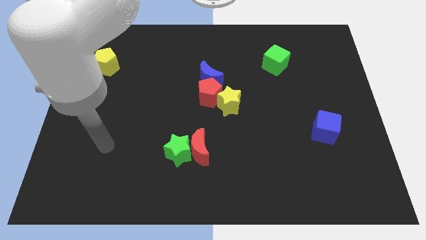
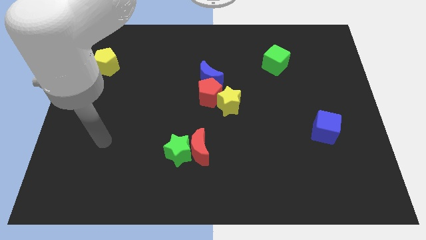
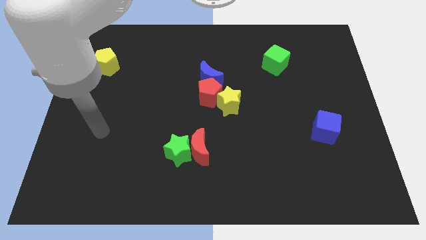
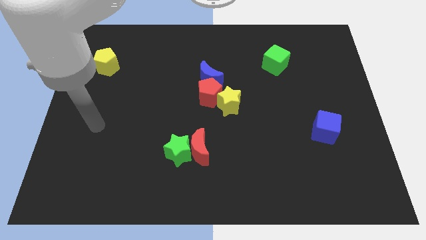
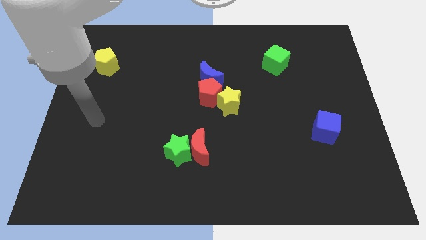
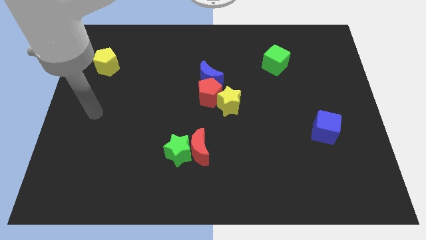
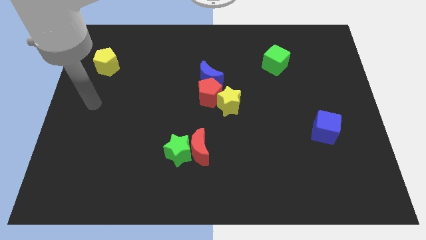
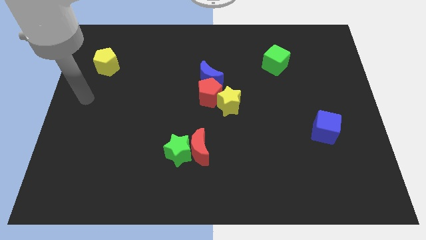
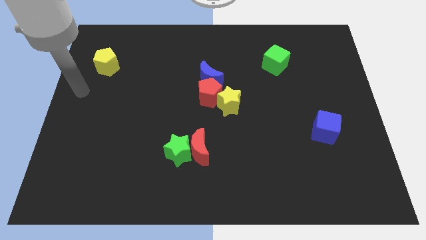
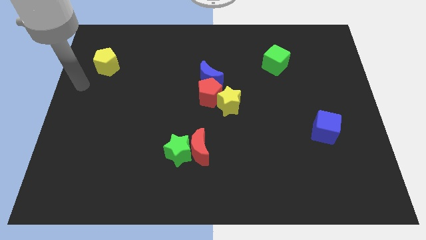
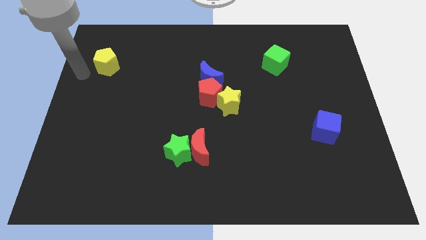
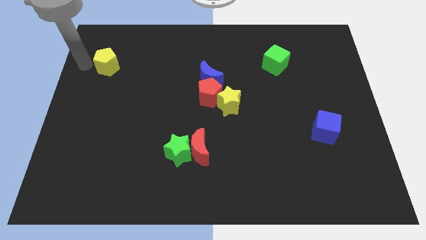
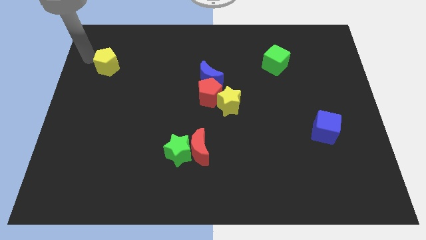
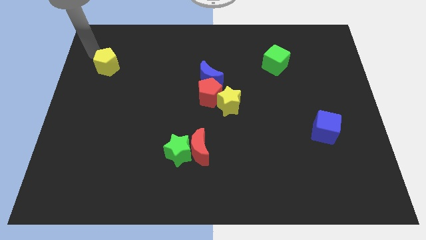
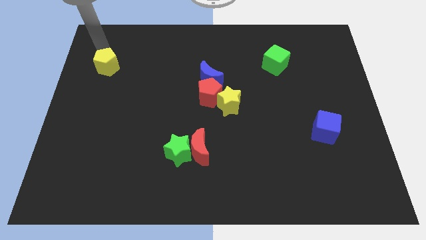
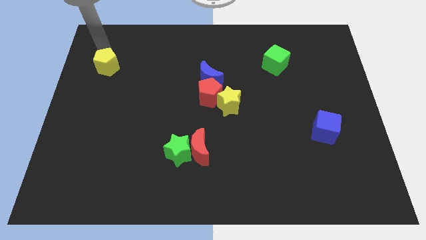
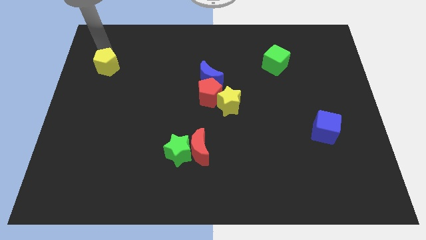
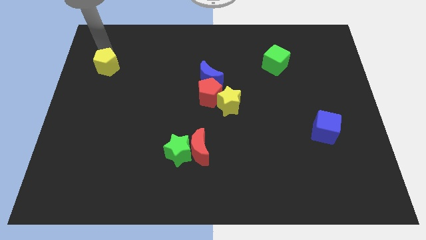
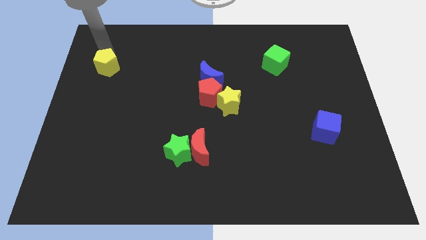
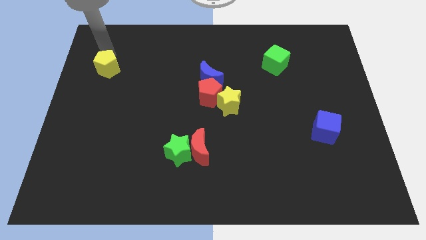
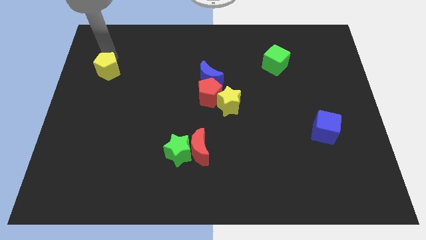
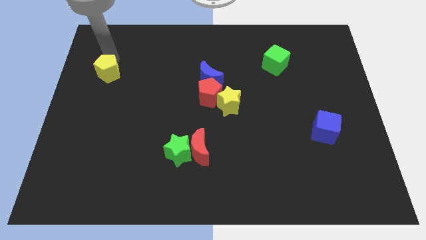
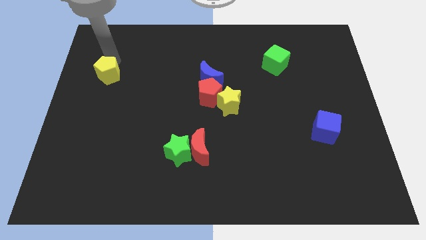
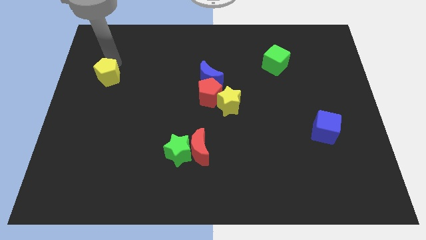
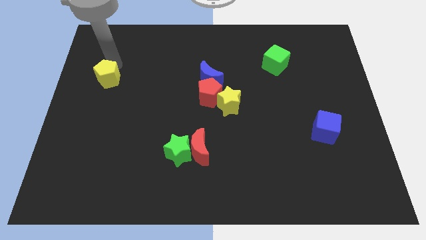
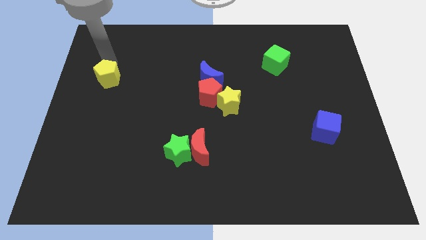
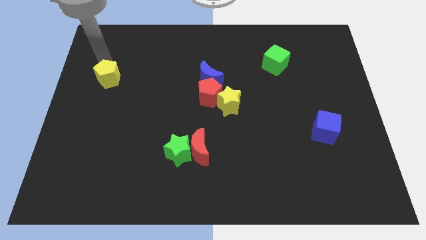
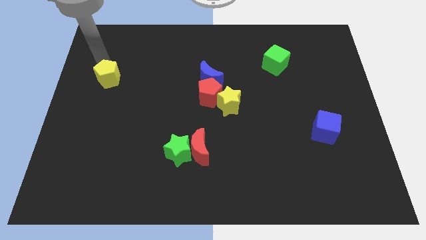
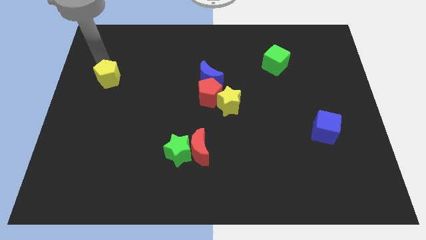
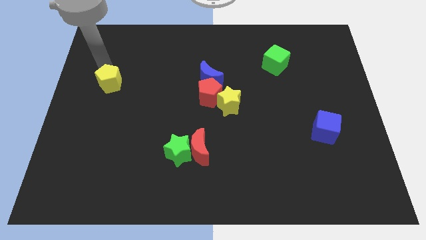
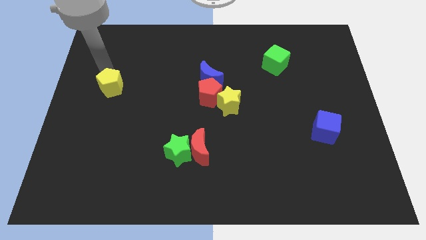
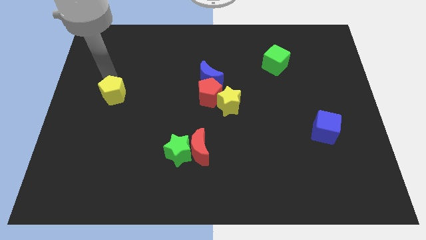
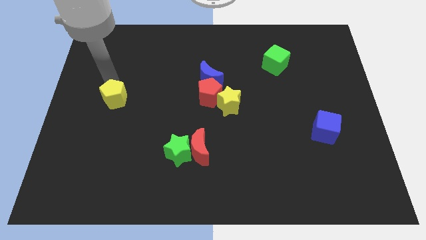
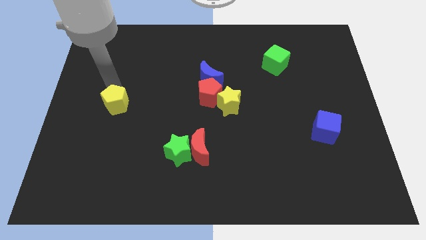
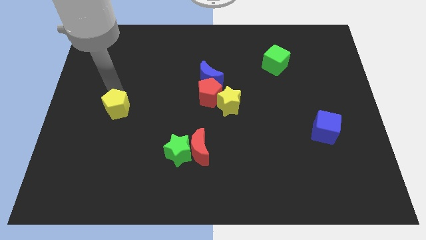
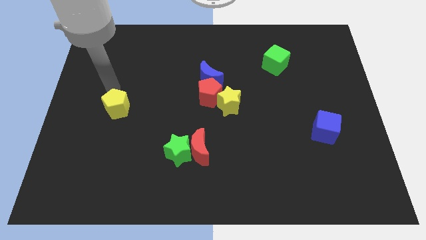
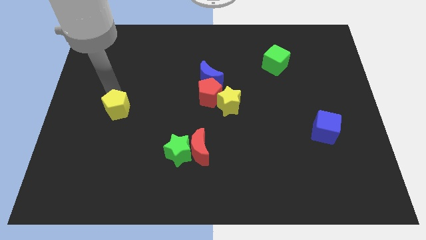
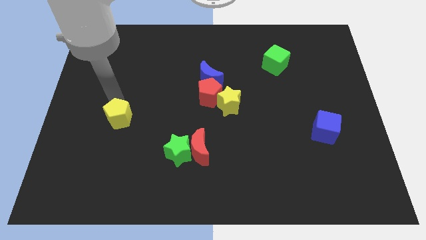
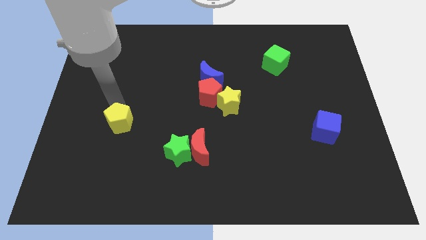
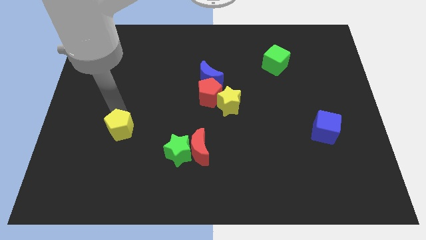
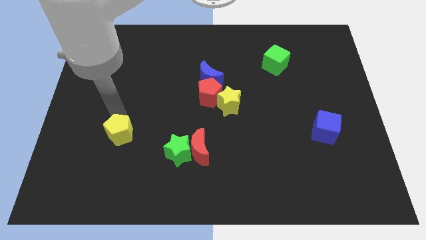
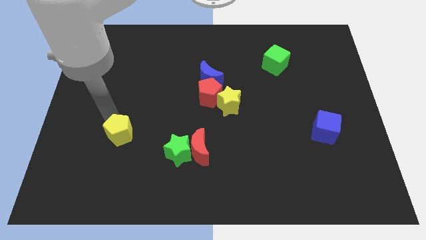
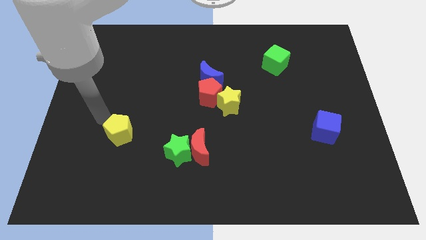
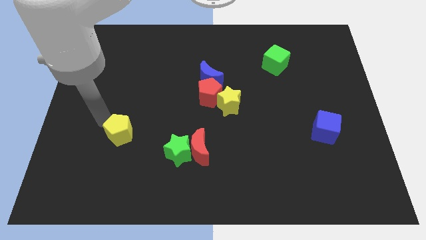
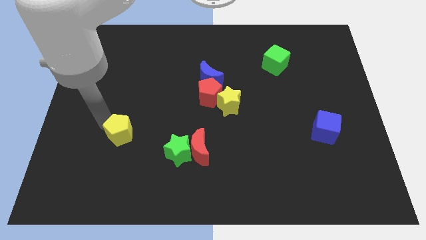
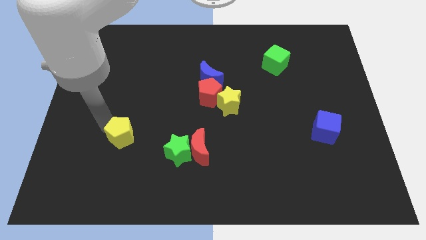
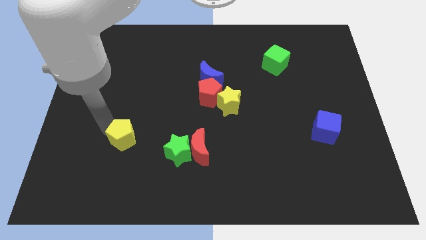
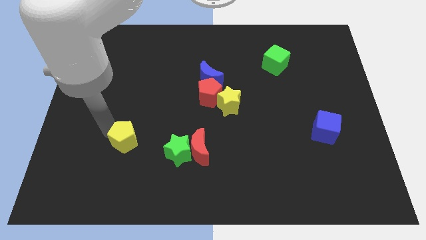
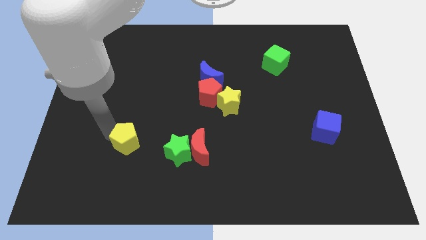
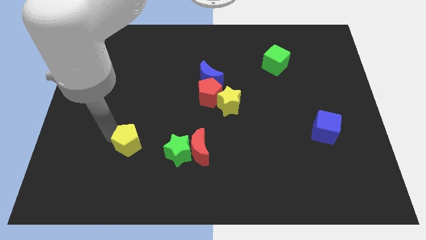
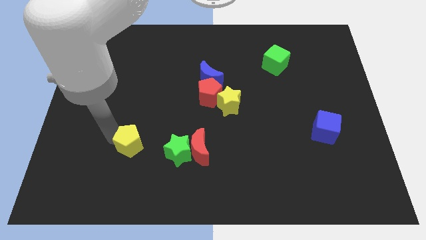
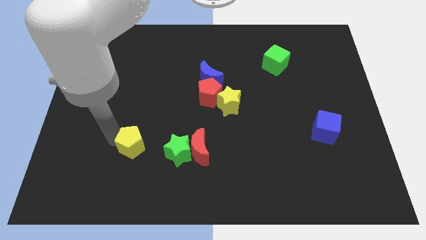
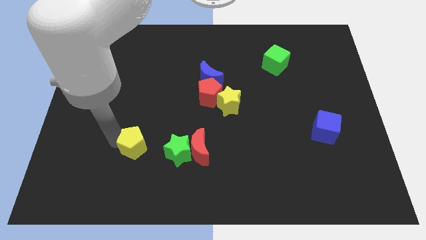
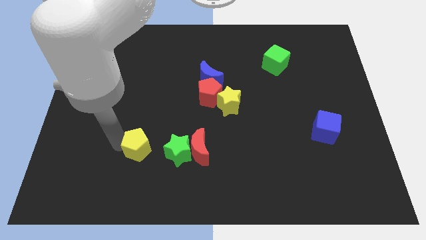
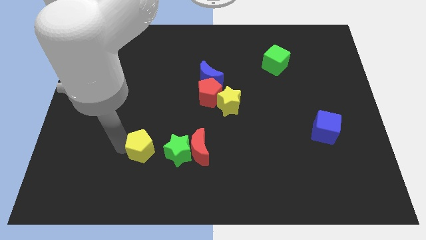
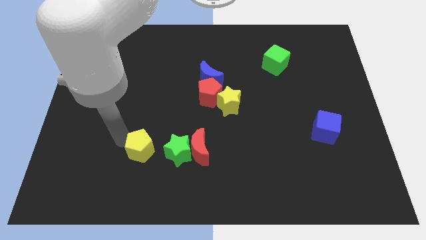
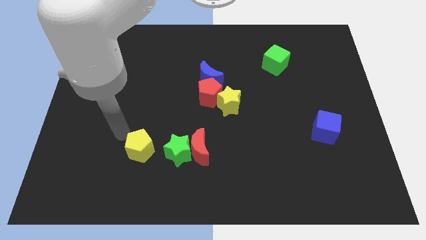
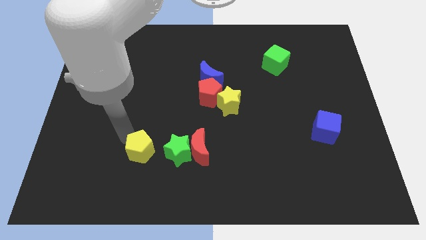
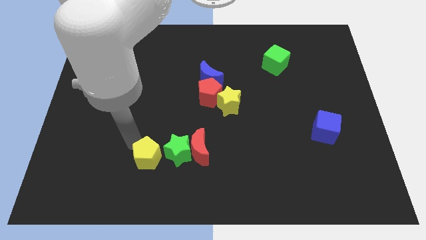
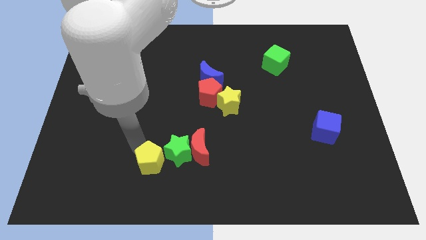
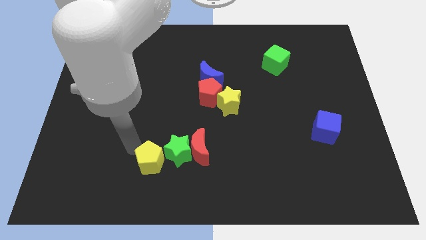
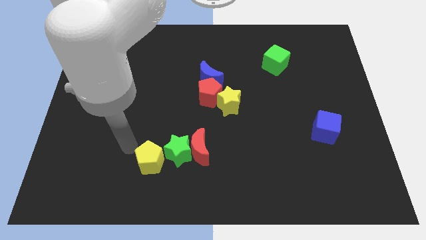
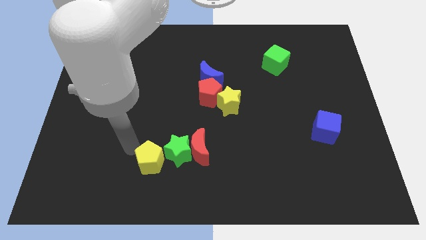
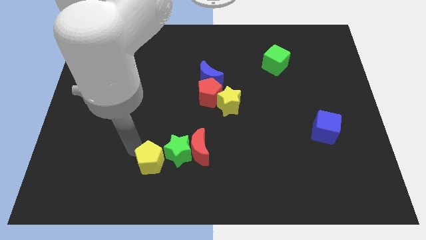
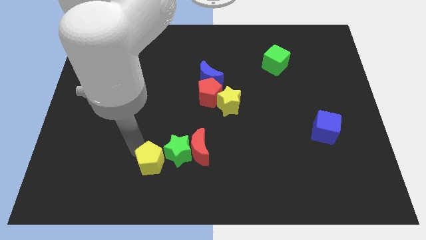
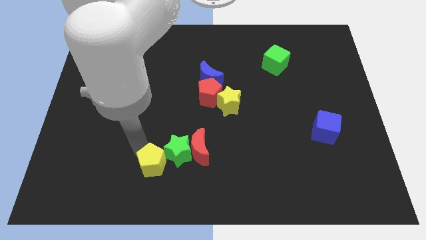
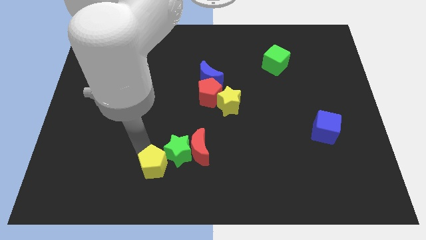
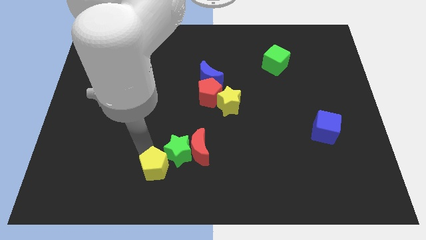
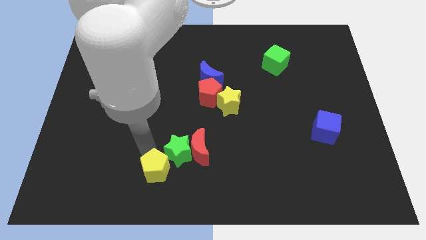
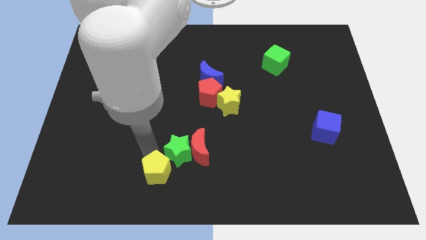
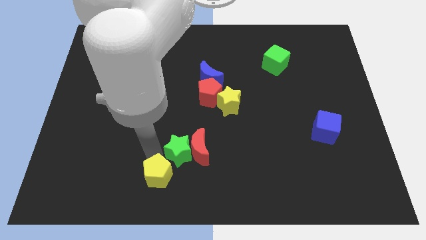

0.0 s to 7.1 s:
push the yellow pentagon to the bottom

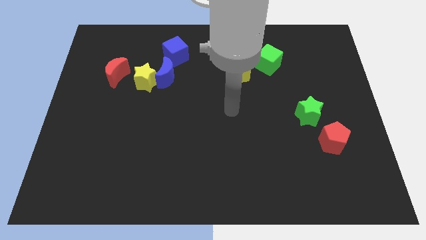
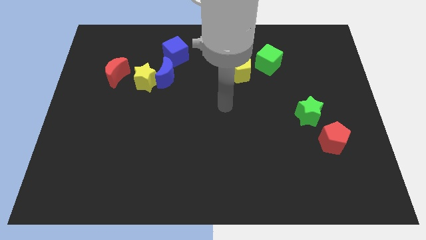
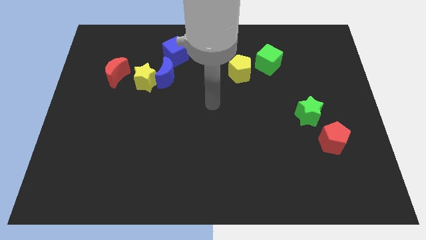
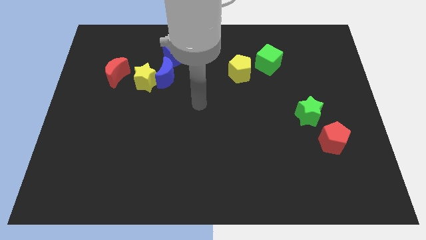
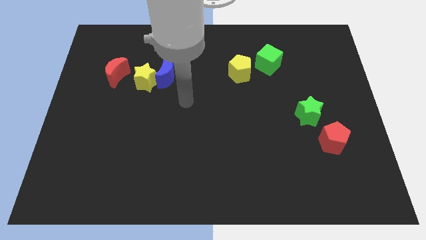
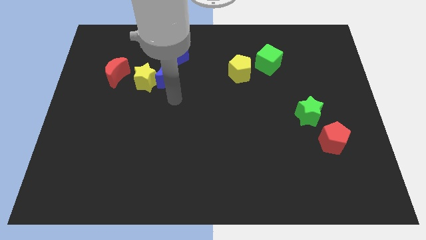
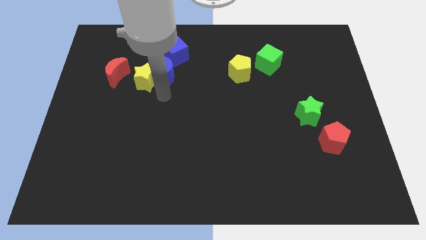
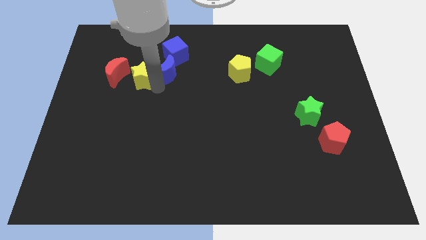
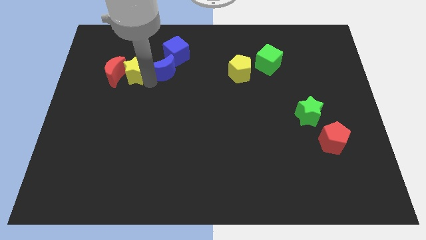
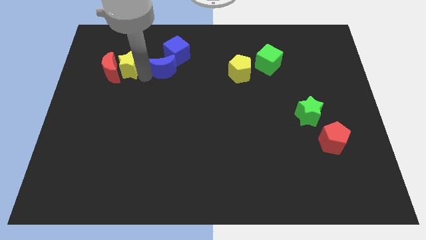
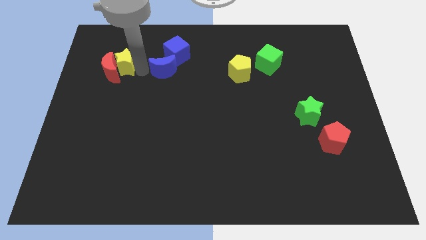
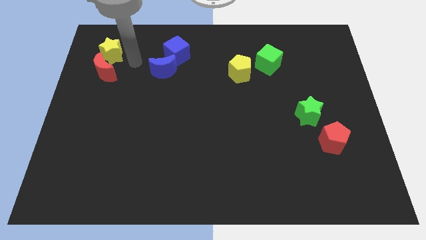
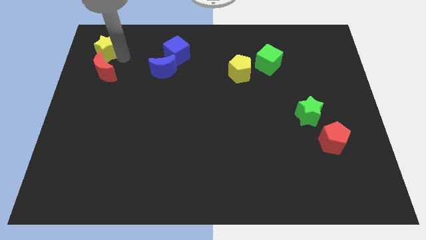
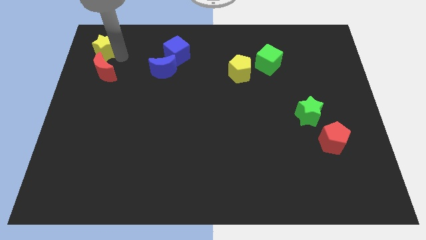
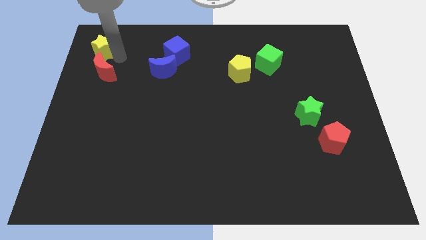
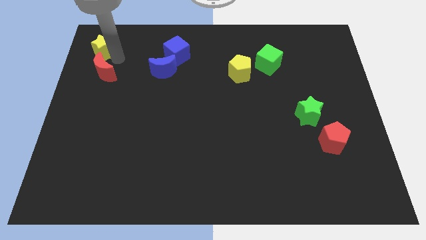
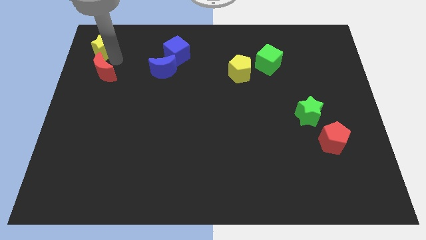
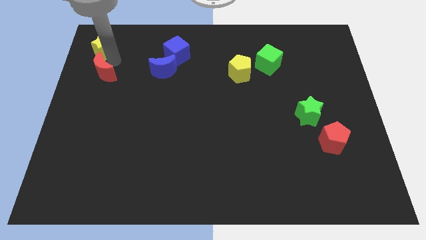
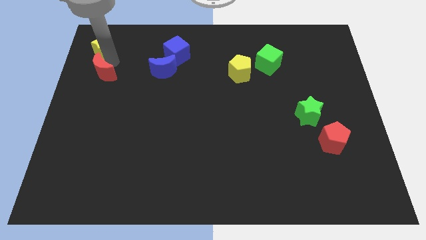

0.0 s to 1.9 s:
slide the red moon to the left side of the board
